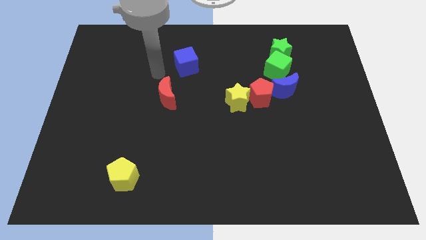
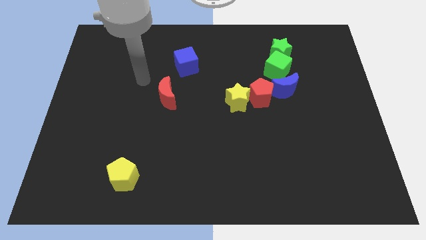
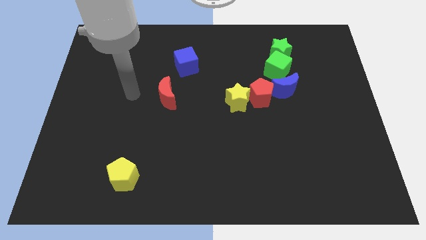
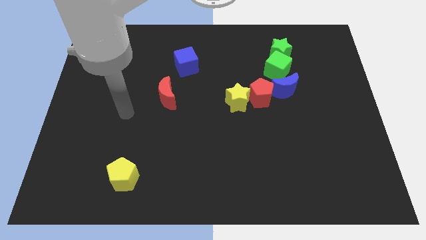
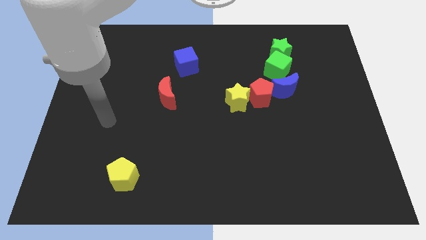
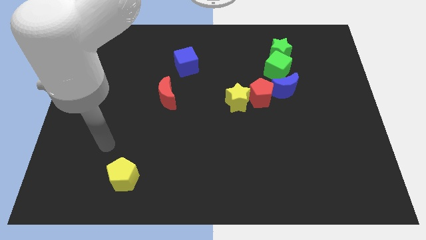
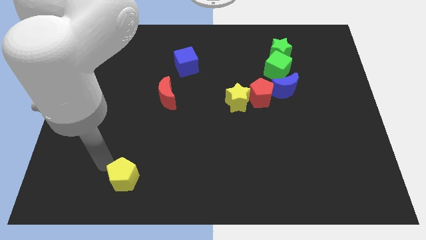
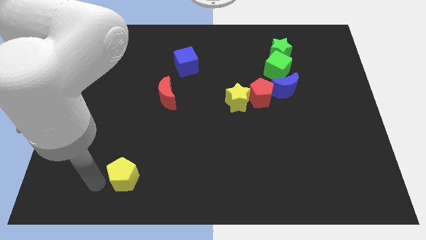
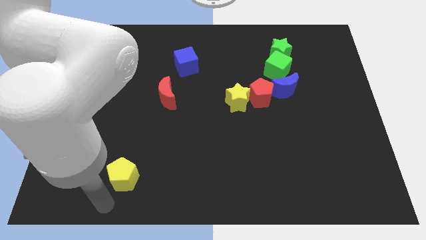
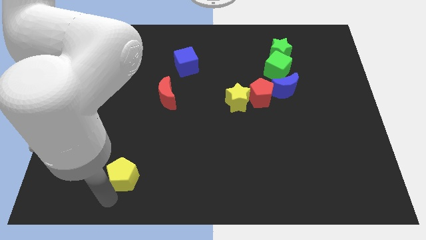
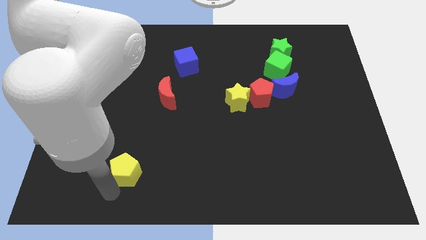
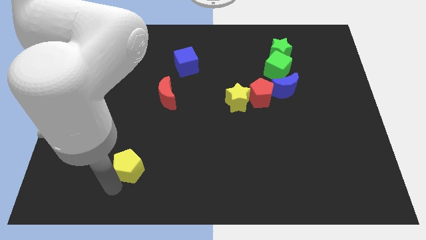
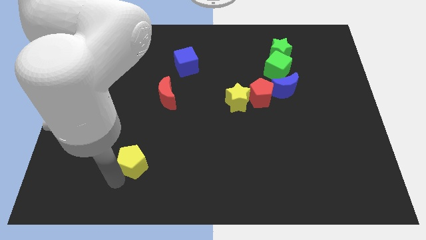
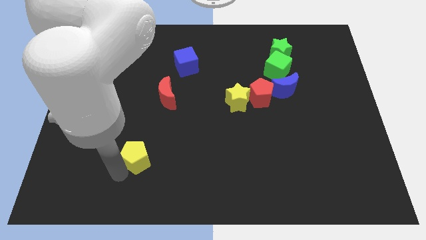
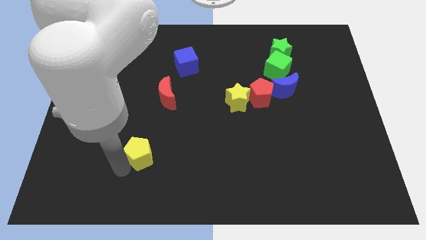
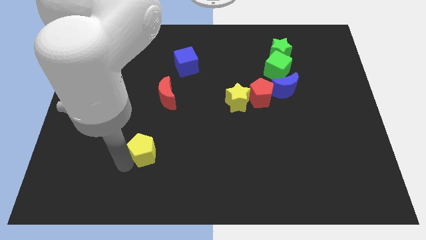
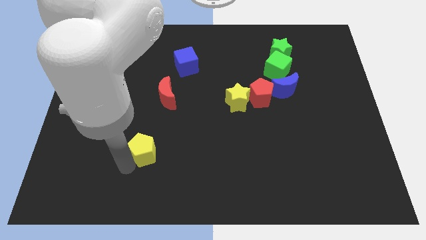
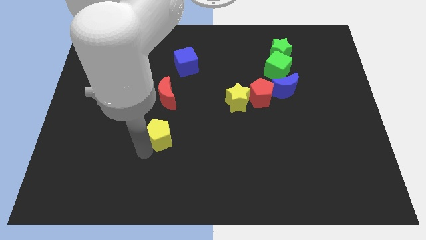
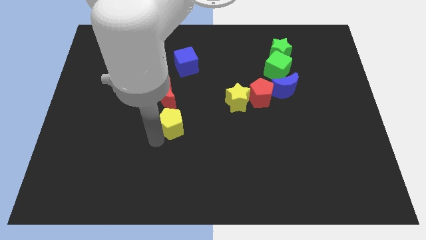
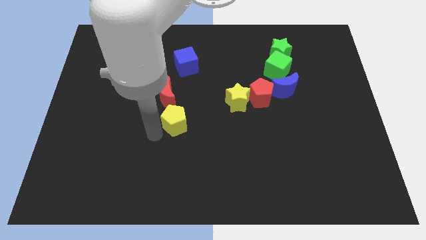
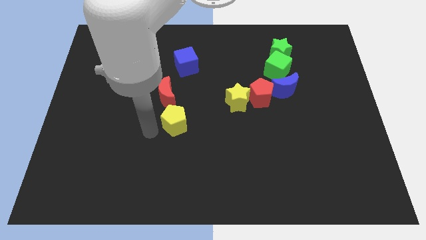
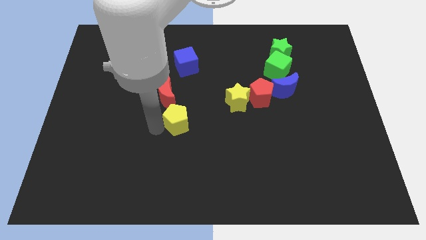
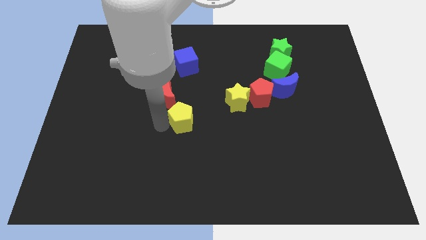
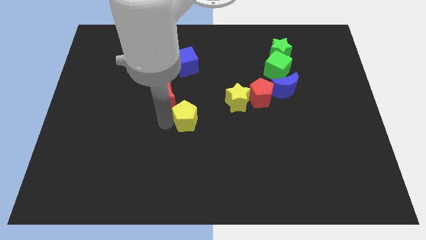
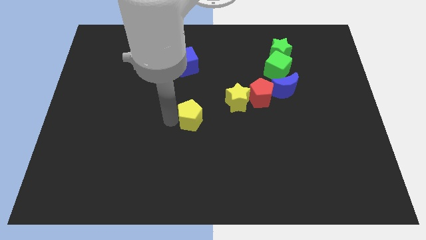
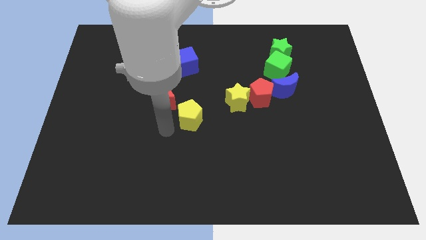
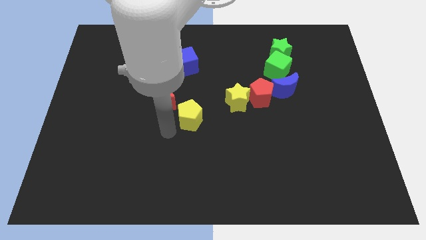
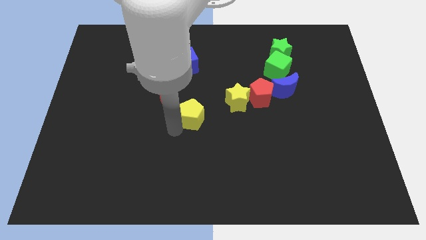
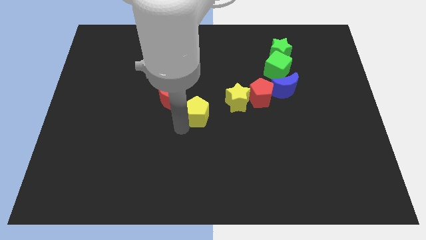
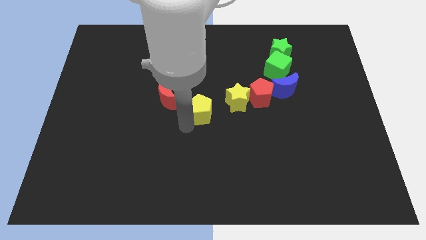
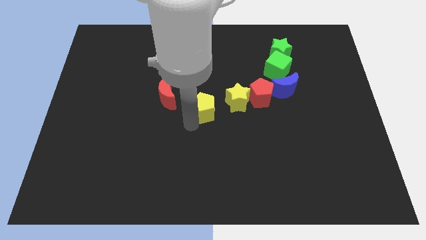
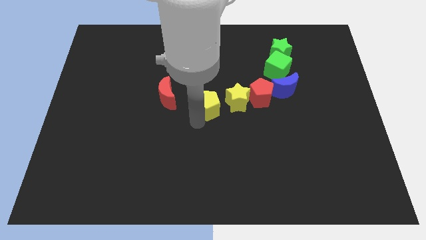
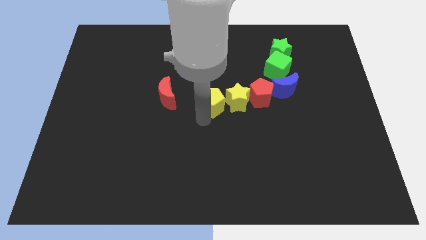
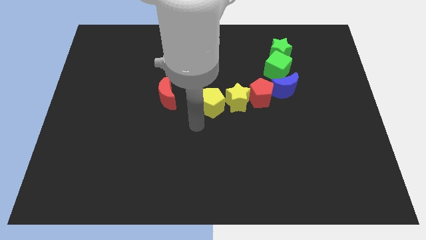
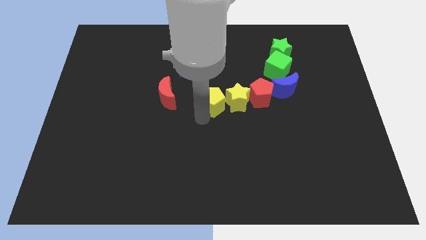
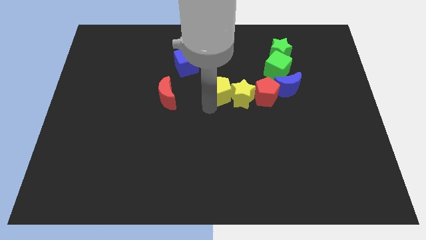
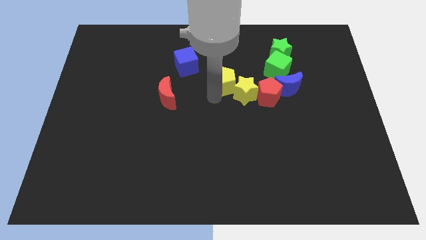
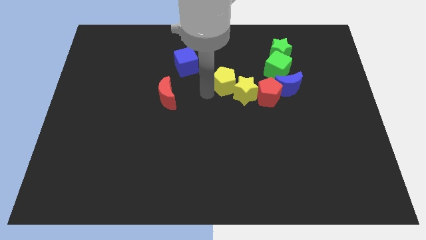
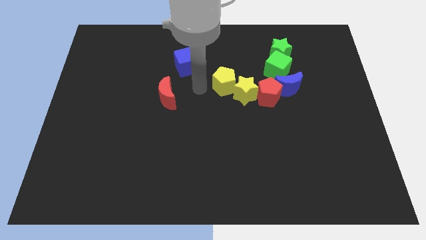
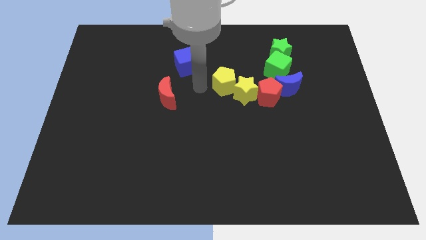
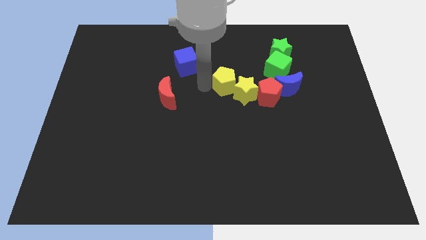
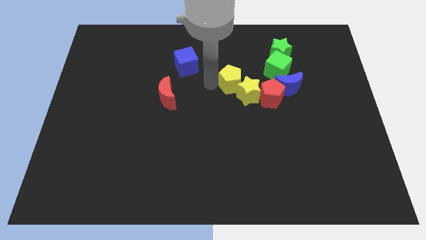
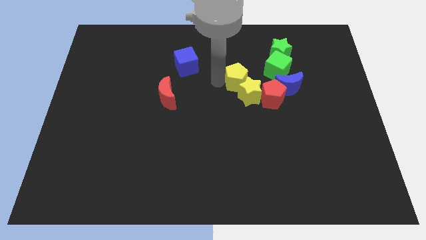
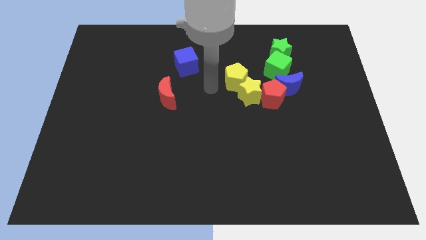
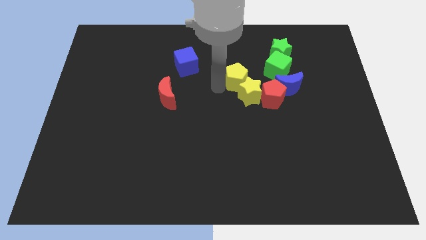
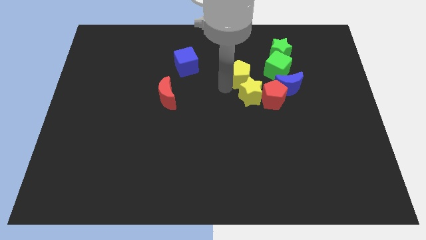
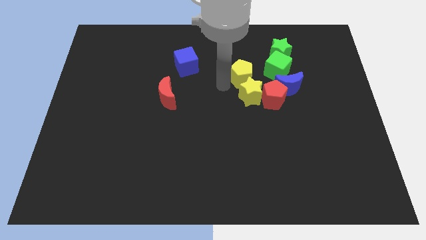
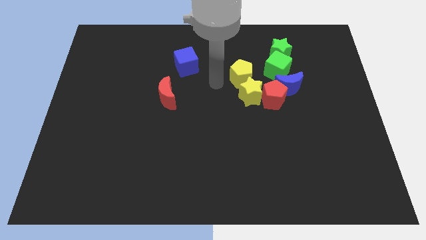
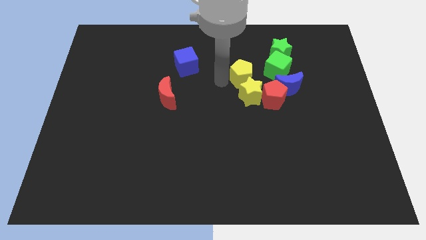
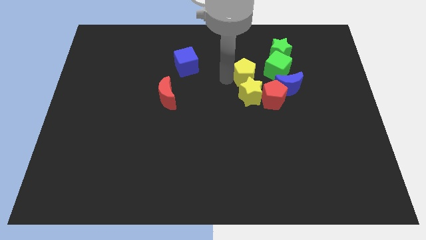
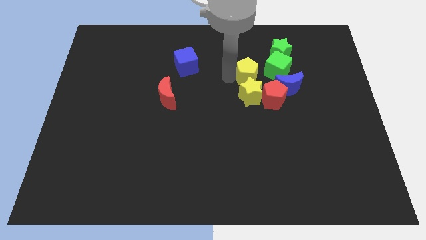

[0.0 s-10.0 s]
push the yellow pentagon to the top left of the blue moon

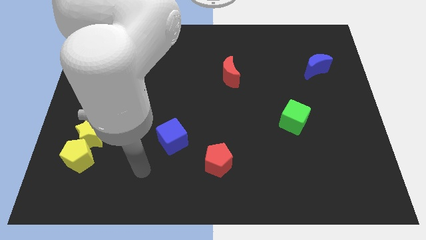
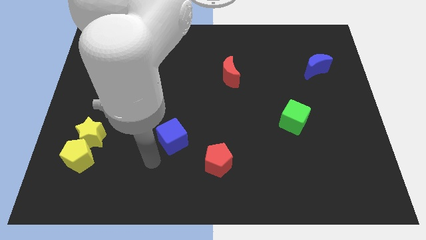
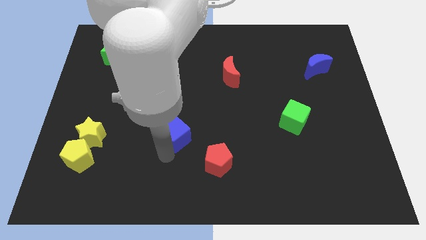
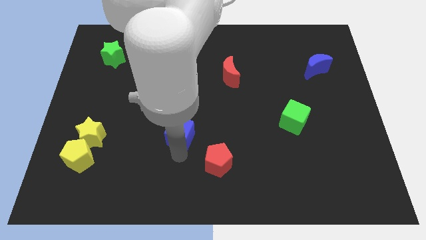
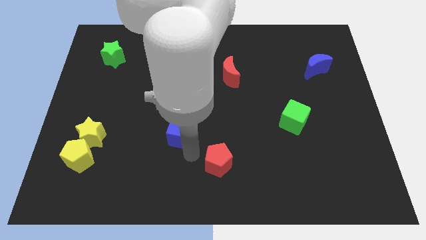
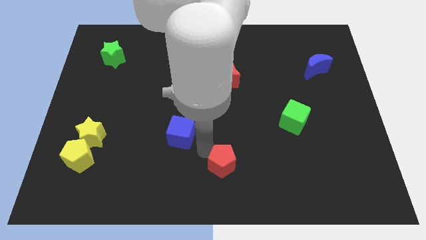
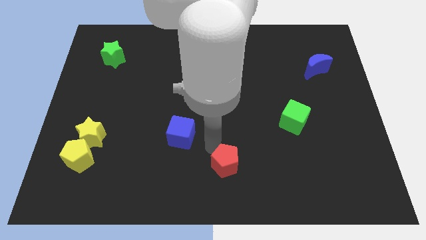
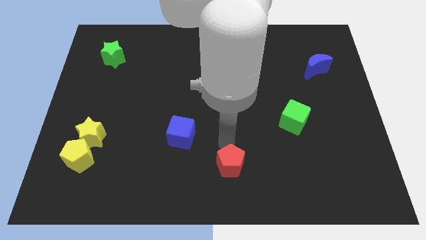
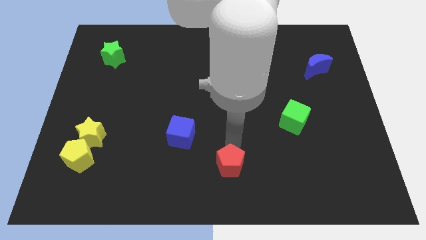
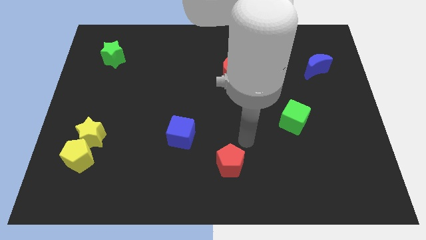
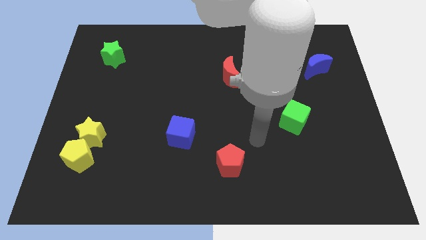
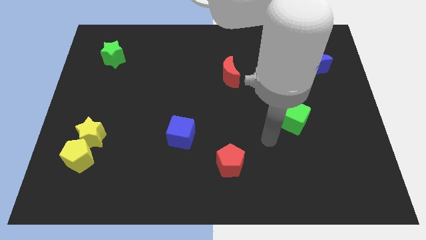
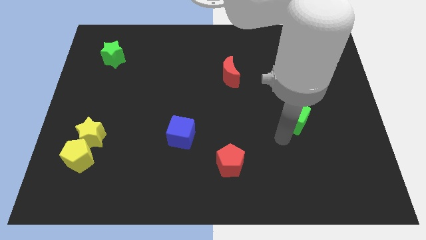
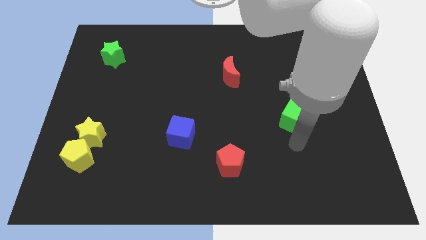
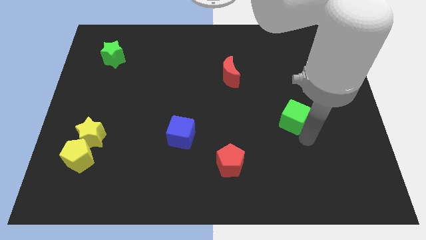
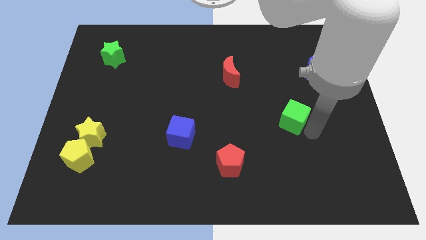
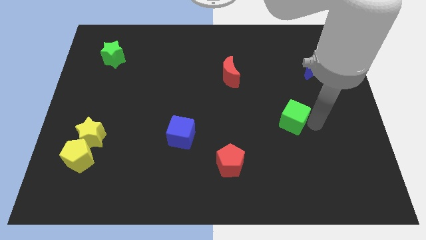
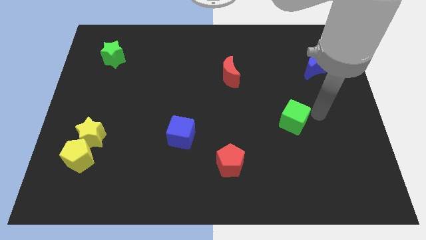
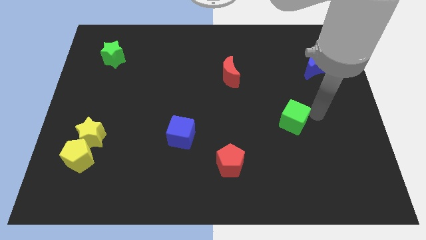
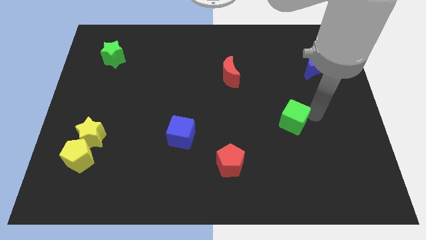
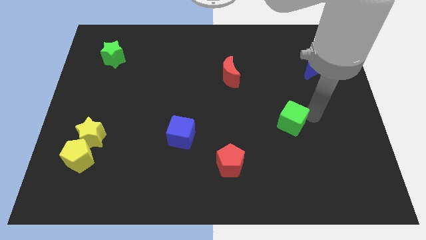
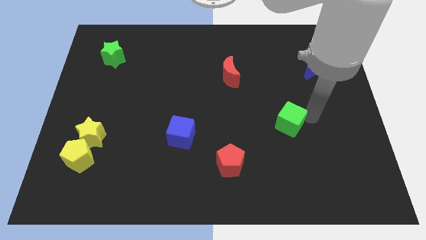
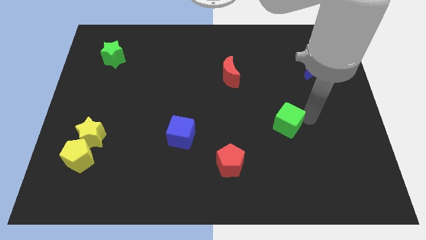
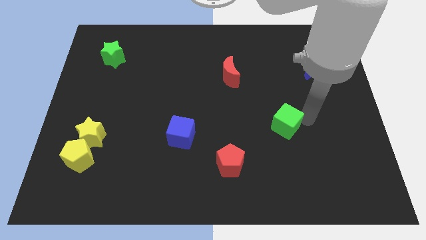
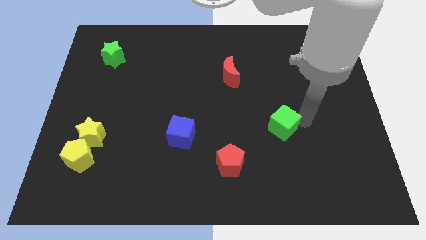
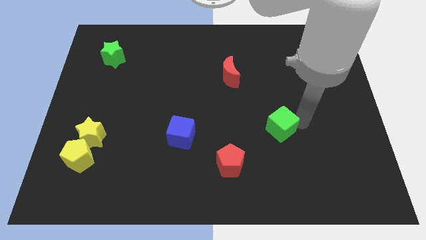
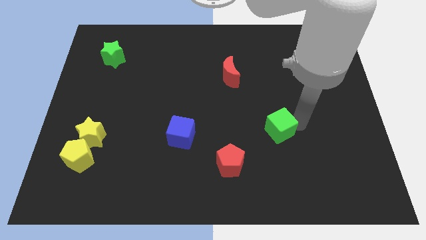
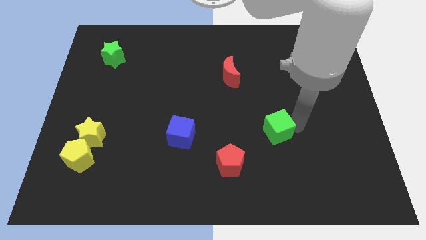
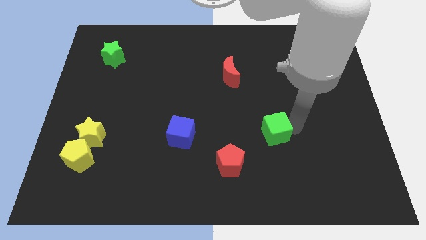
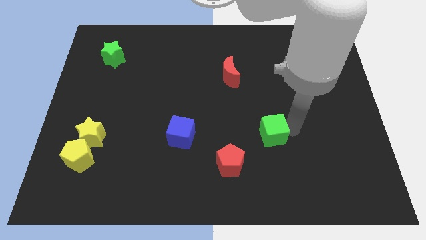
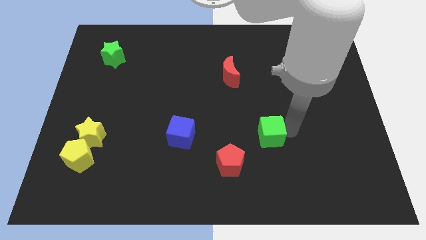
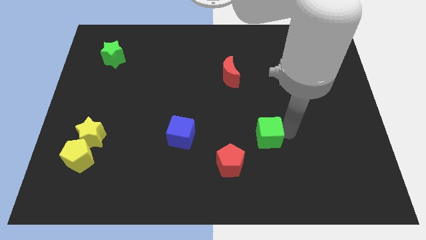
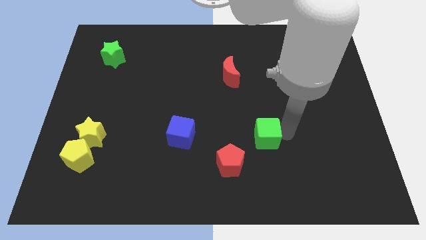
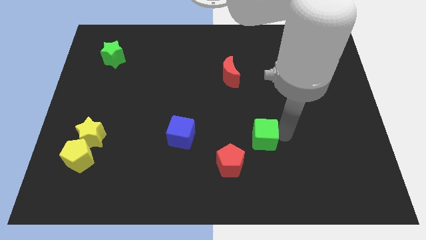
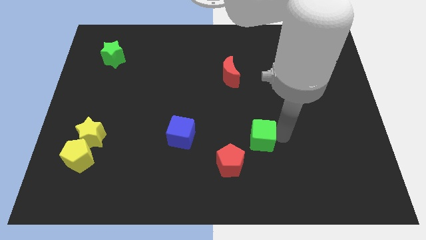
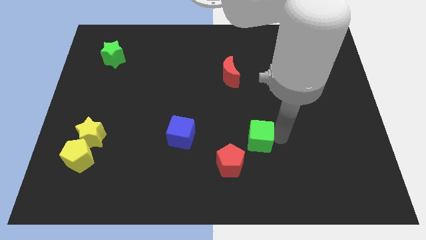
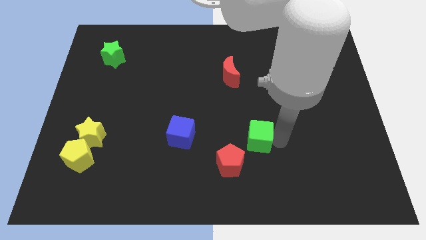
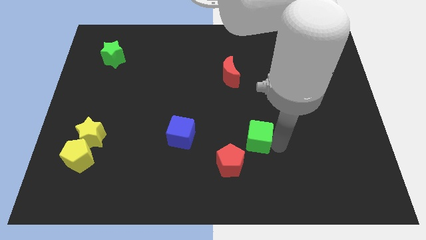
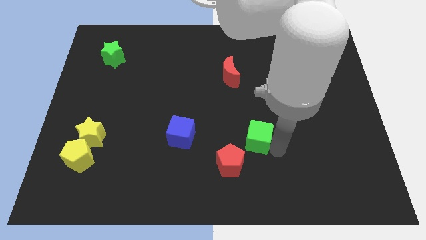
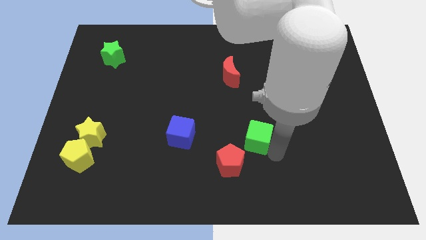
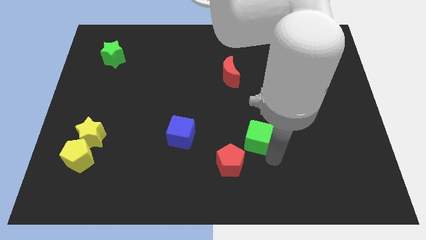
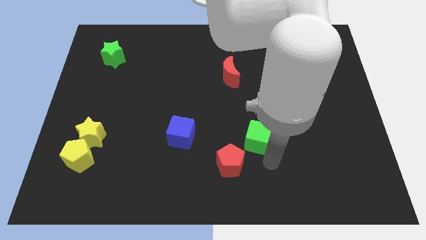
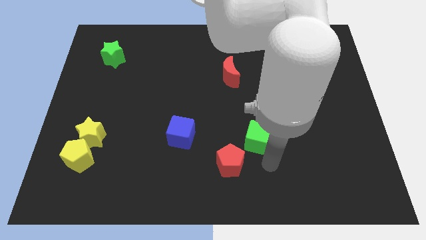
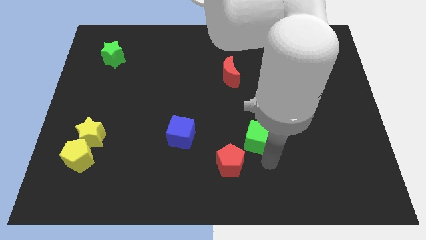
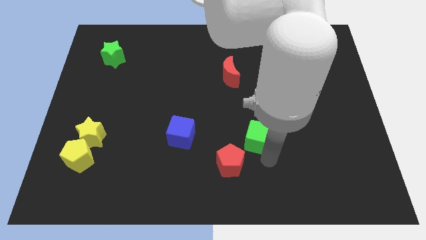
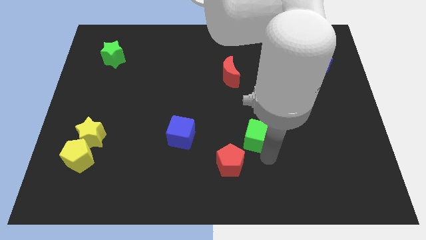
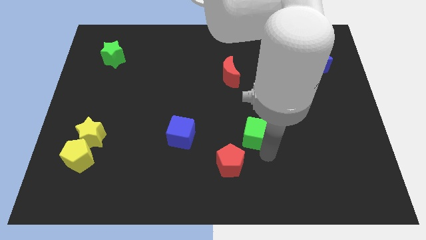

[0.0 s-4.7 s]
move the green cube just right of the blue cube
